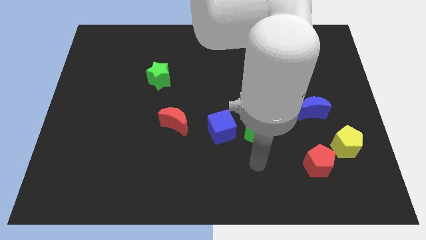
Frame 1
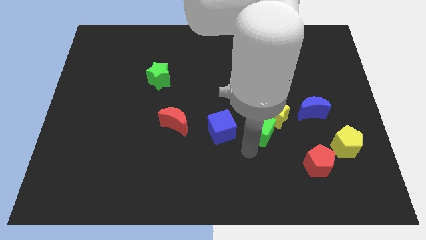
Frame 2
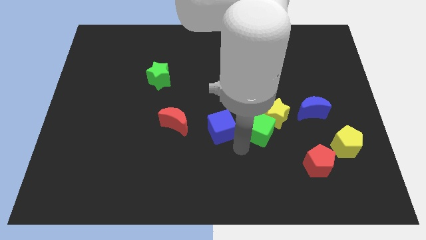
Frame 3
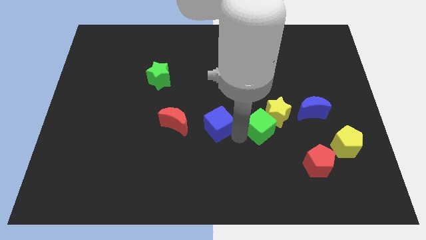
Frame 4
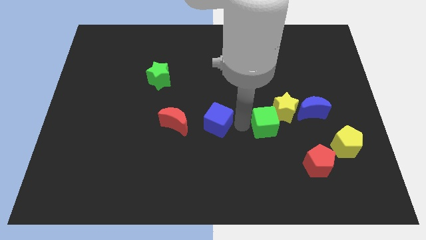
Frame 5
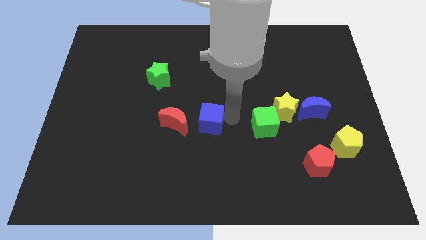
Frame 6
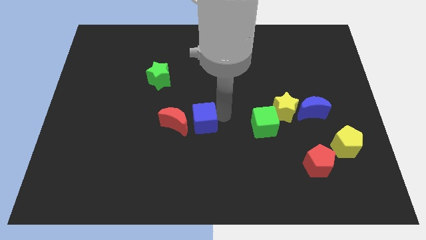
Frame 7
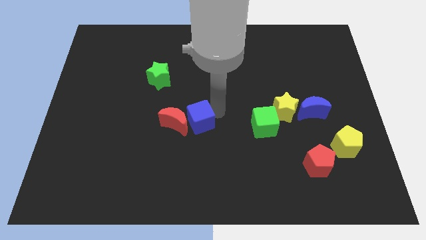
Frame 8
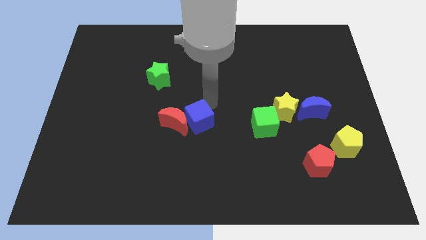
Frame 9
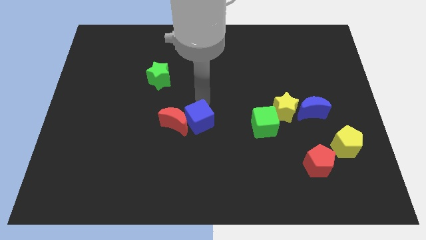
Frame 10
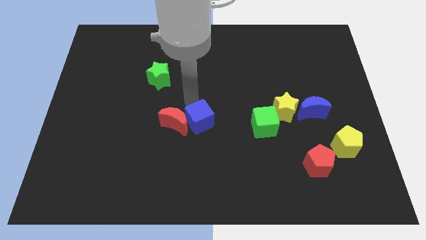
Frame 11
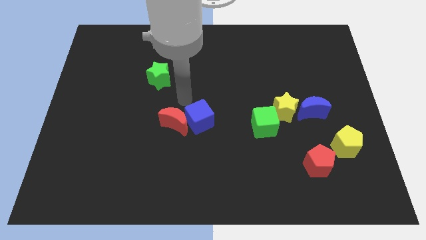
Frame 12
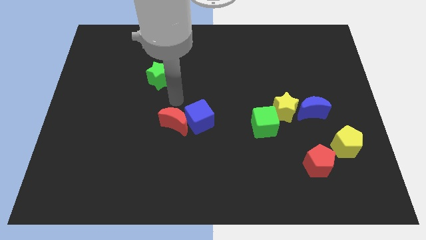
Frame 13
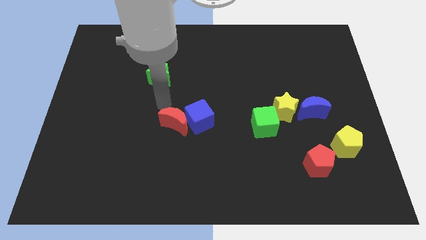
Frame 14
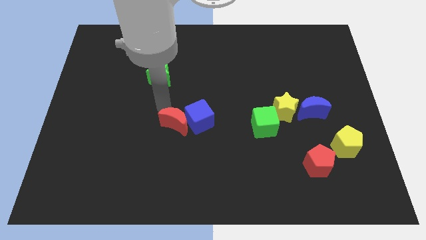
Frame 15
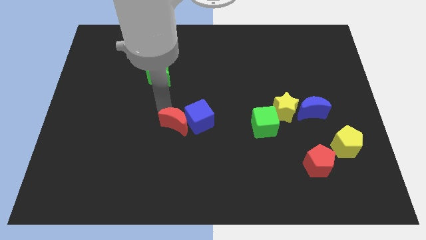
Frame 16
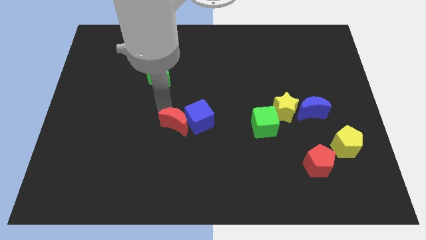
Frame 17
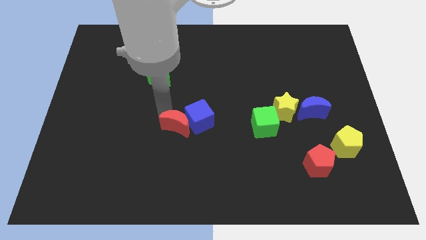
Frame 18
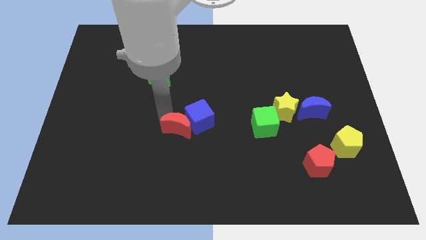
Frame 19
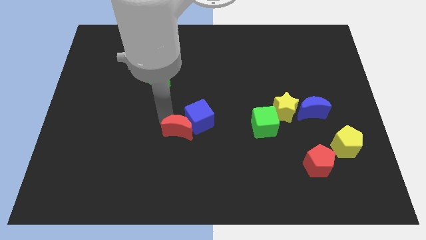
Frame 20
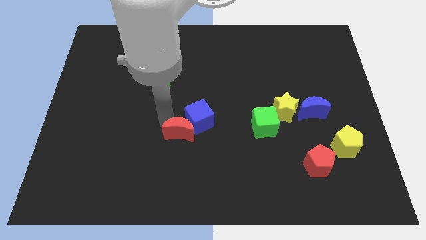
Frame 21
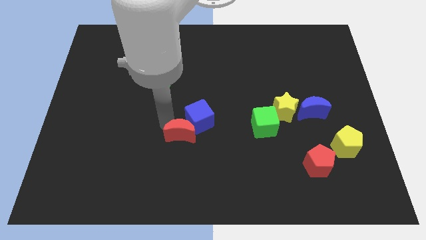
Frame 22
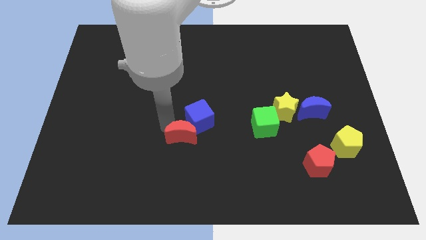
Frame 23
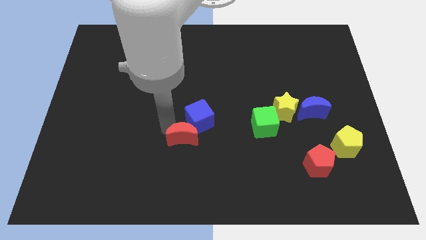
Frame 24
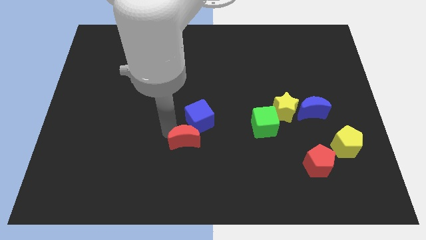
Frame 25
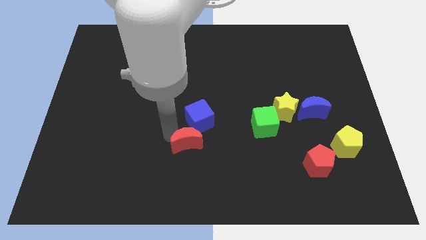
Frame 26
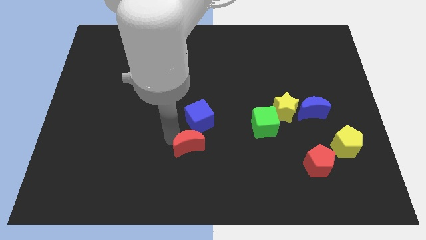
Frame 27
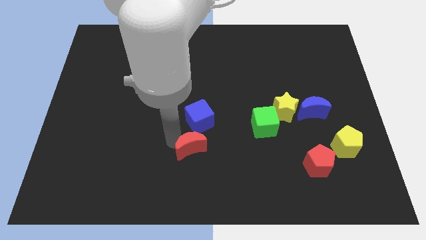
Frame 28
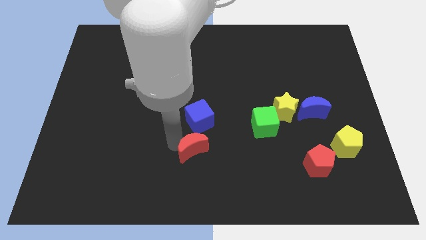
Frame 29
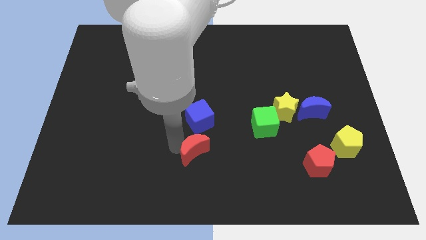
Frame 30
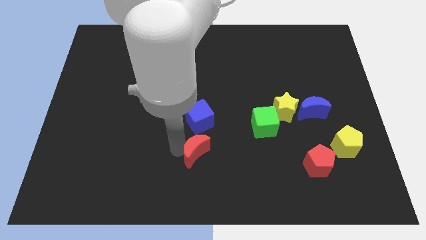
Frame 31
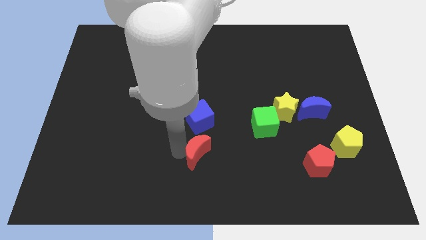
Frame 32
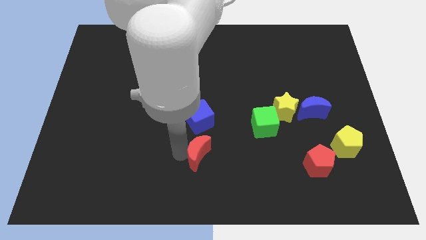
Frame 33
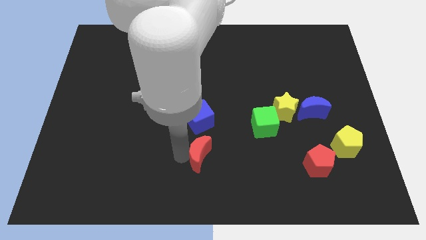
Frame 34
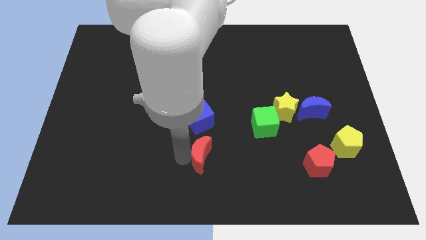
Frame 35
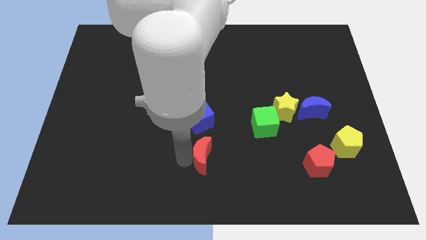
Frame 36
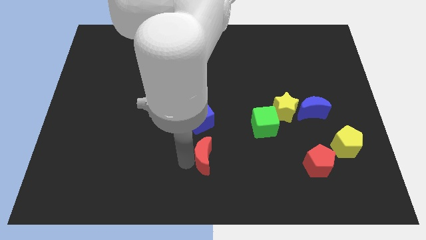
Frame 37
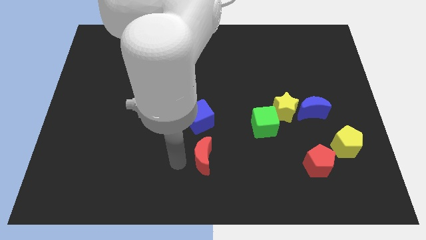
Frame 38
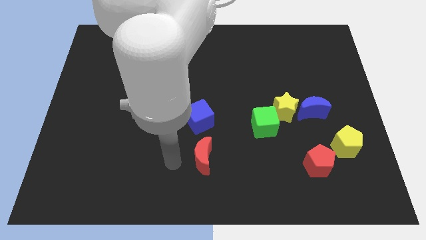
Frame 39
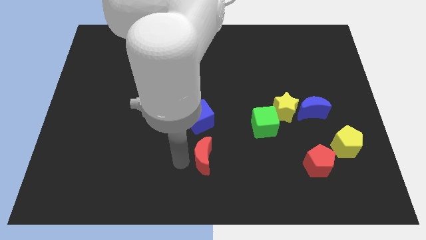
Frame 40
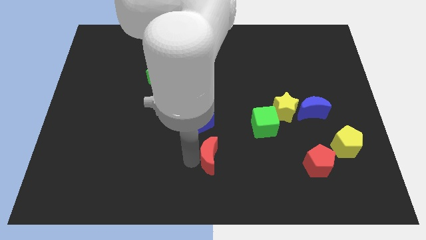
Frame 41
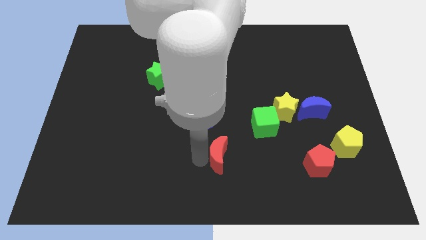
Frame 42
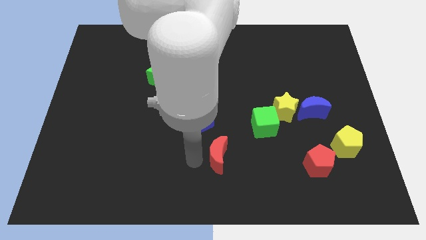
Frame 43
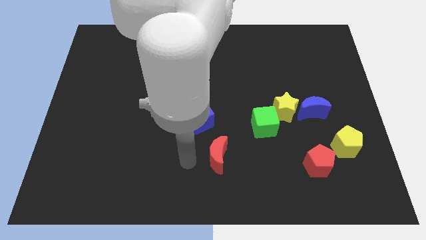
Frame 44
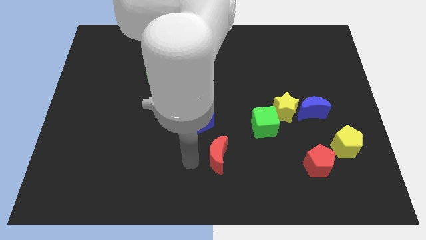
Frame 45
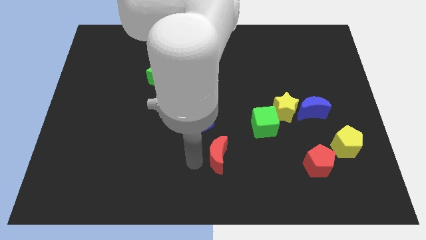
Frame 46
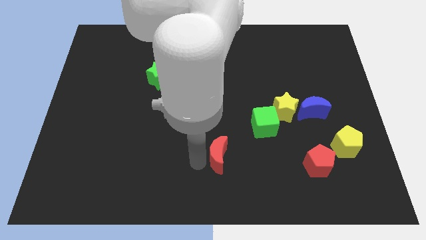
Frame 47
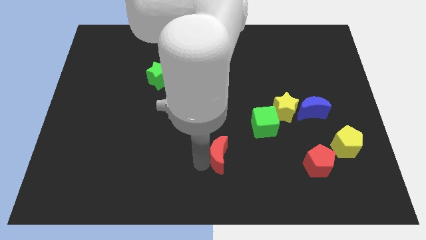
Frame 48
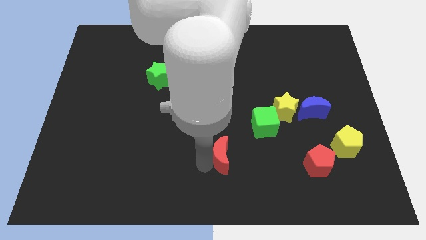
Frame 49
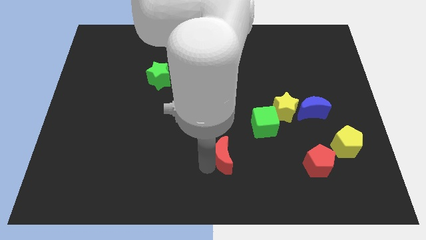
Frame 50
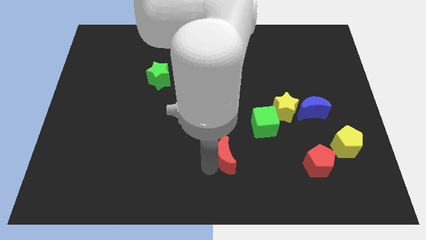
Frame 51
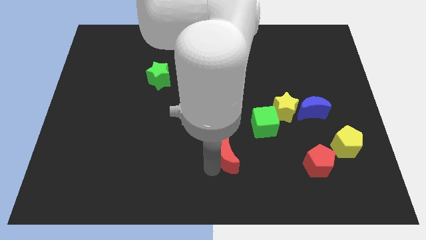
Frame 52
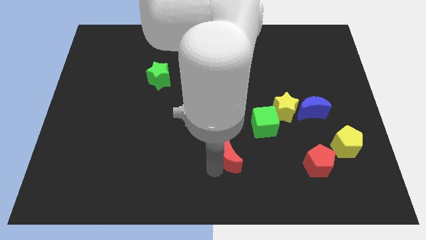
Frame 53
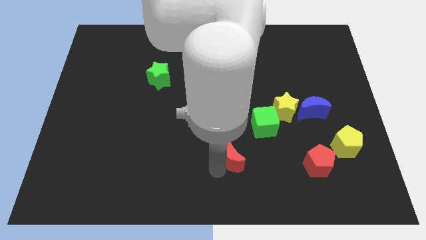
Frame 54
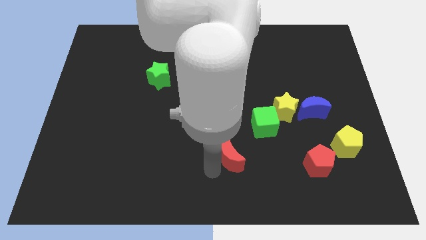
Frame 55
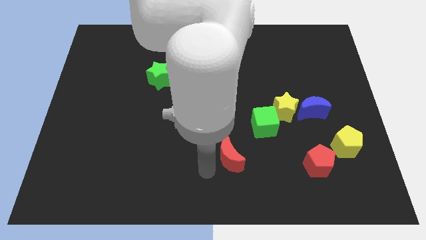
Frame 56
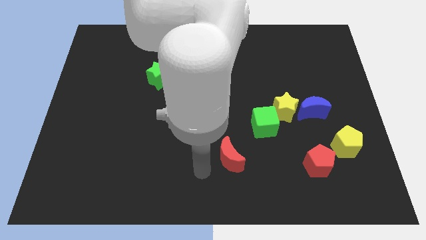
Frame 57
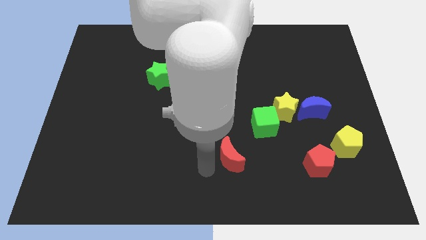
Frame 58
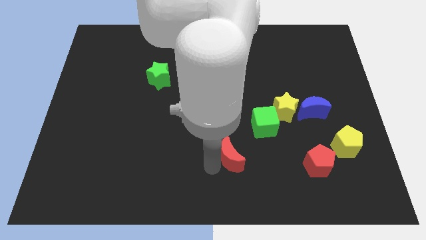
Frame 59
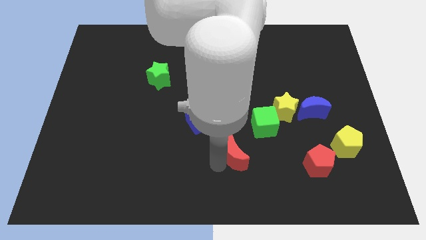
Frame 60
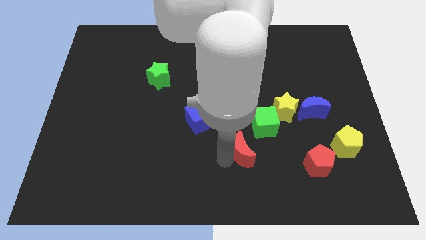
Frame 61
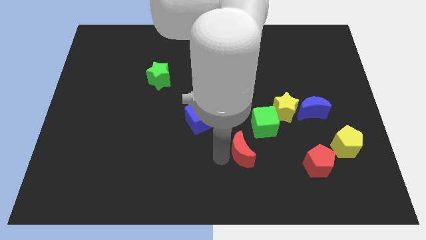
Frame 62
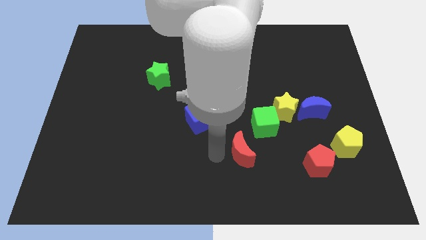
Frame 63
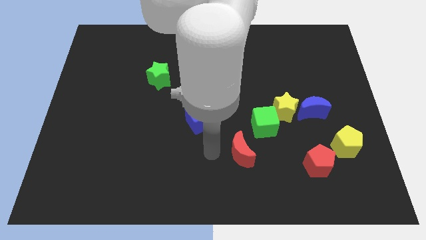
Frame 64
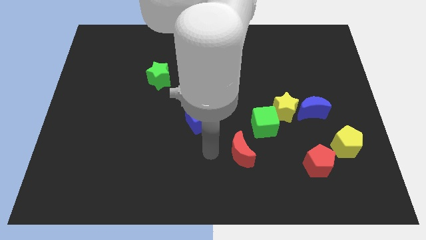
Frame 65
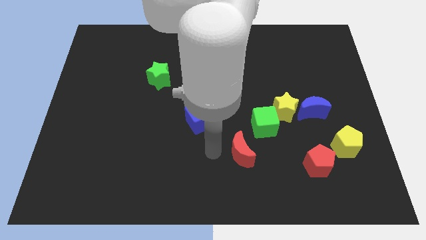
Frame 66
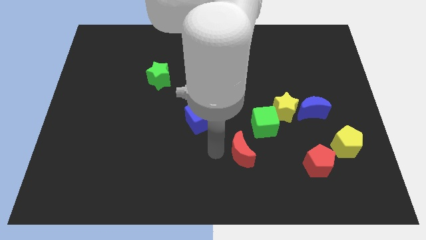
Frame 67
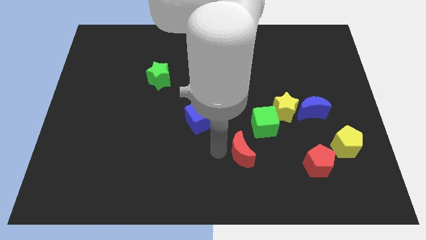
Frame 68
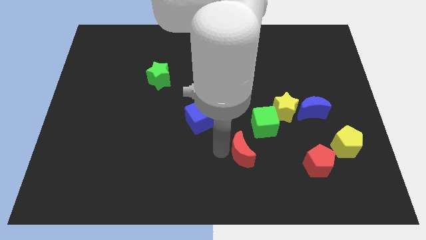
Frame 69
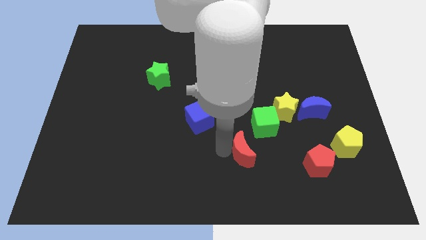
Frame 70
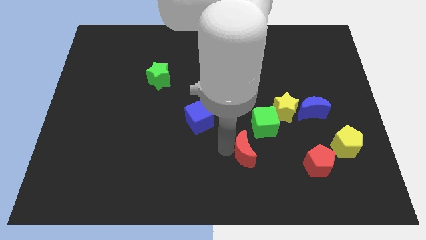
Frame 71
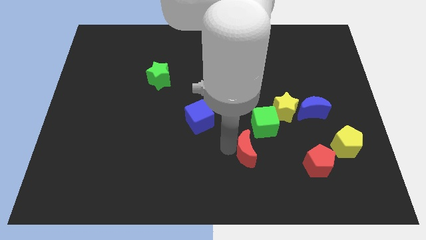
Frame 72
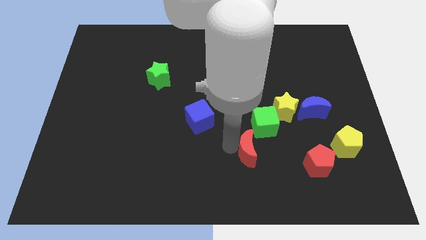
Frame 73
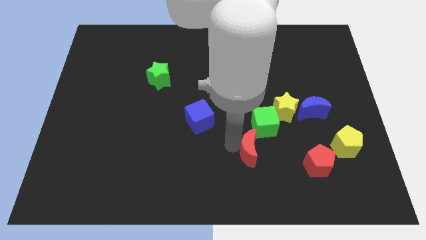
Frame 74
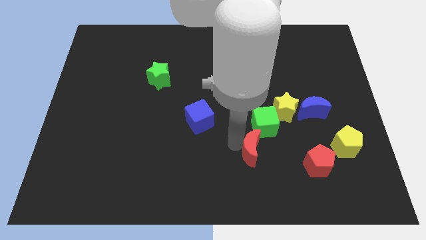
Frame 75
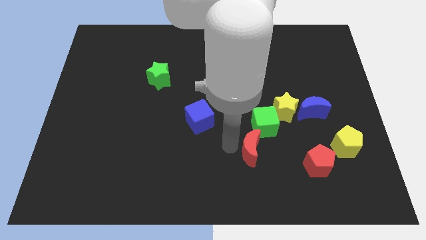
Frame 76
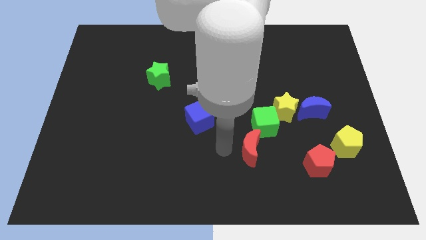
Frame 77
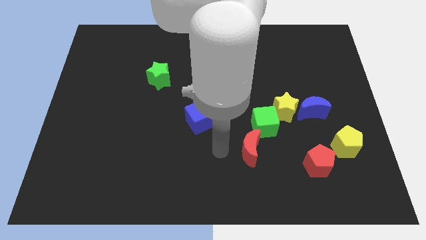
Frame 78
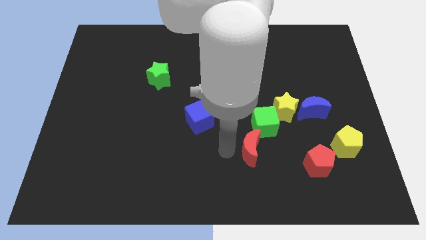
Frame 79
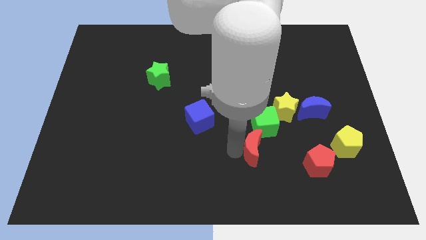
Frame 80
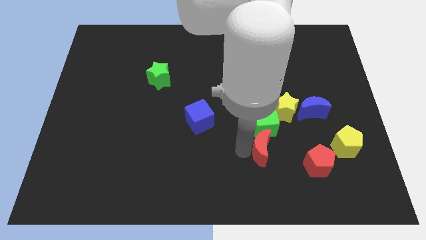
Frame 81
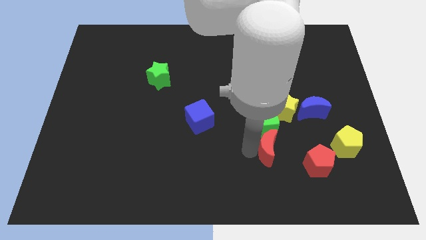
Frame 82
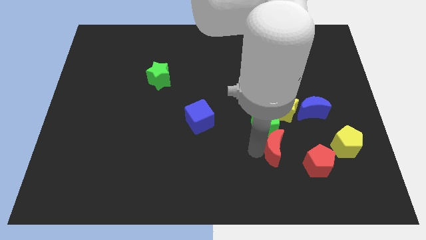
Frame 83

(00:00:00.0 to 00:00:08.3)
move the red moon just left of the yellow pentagon
